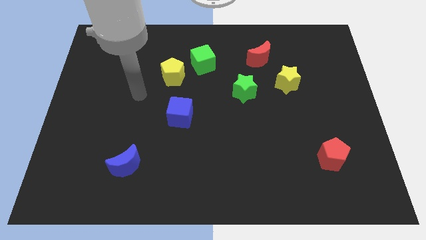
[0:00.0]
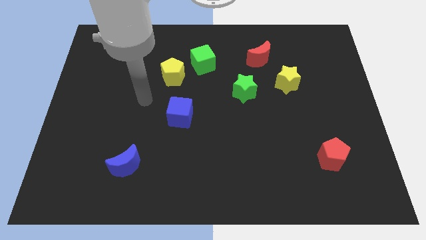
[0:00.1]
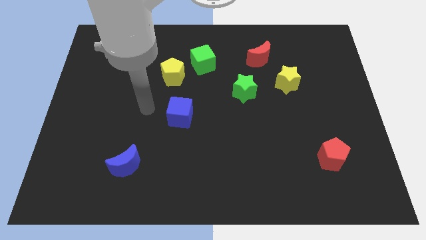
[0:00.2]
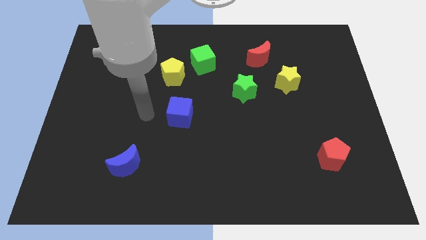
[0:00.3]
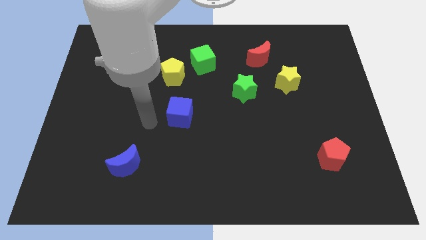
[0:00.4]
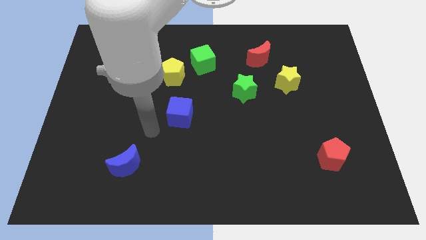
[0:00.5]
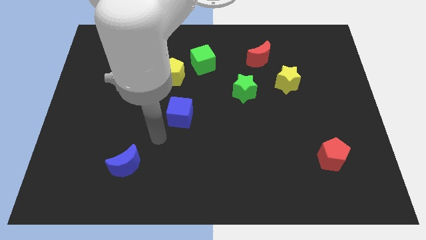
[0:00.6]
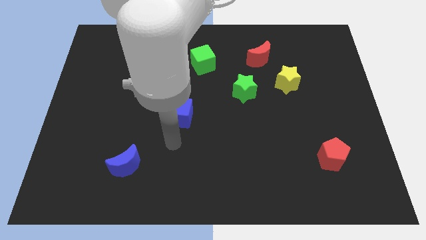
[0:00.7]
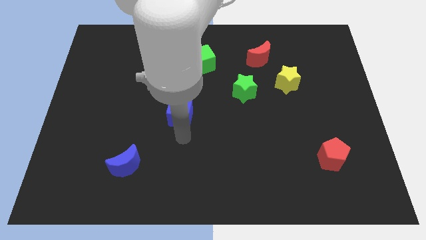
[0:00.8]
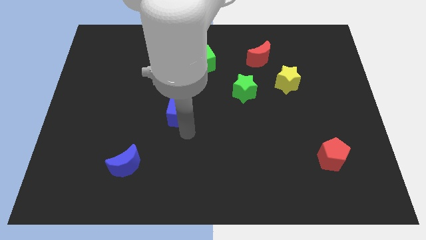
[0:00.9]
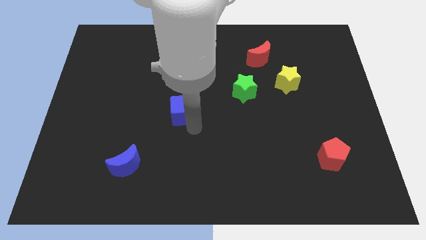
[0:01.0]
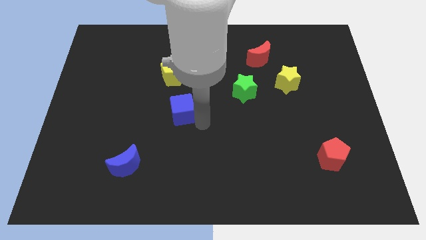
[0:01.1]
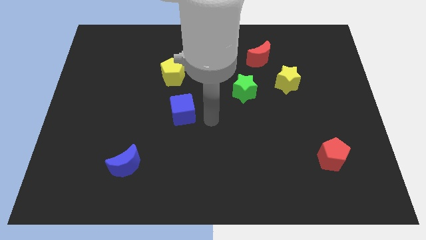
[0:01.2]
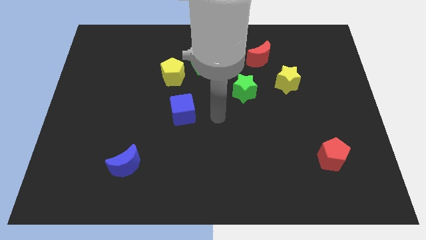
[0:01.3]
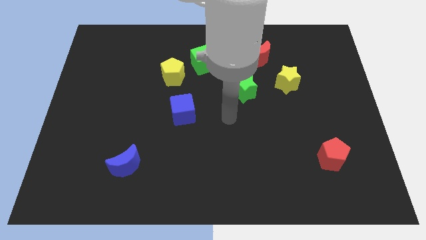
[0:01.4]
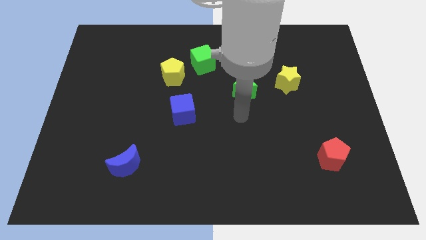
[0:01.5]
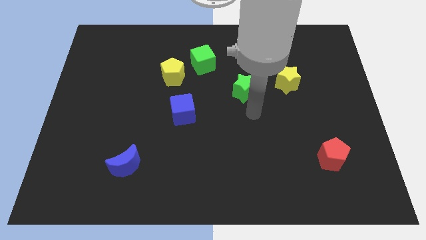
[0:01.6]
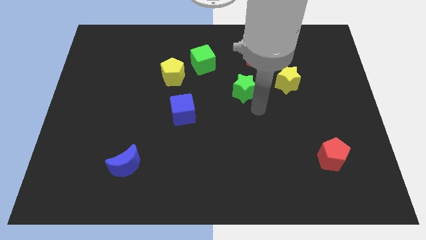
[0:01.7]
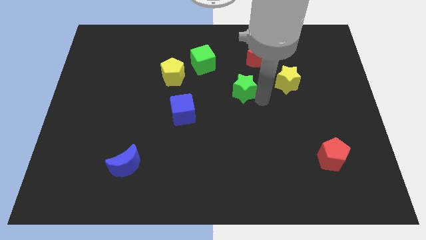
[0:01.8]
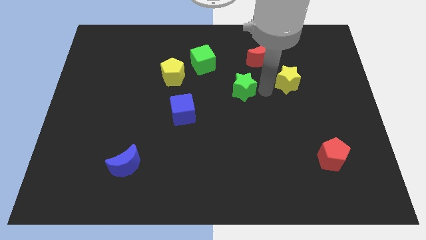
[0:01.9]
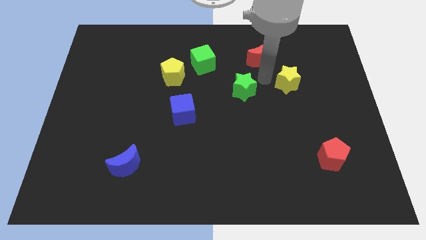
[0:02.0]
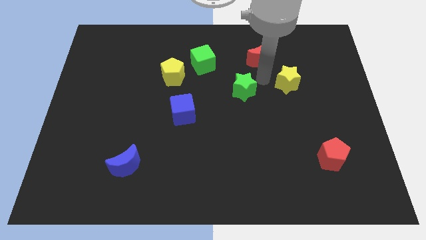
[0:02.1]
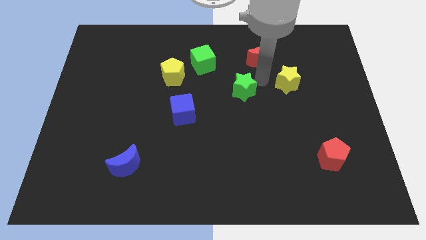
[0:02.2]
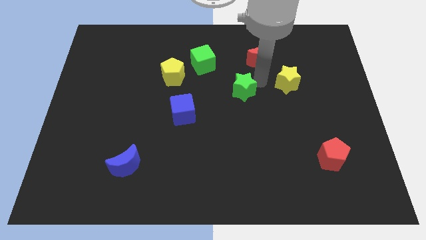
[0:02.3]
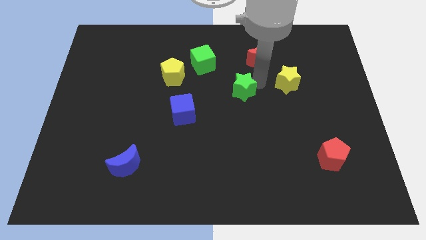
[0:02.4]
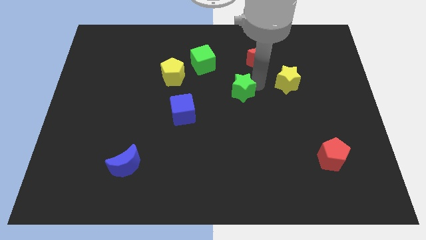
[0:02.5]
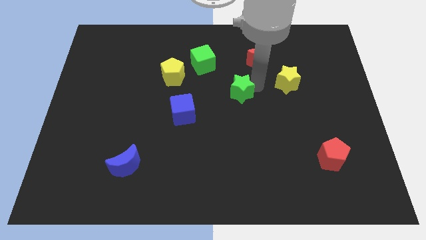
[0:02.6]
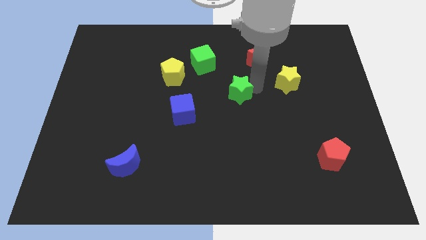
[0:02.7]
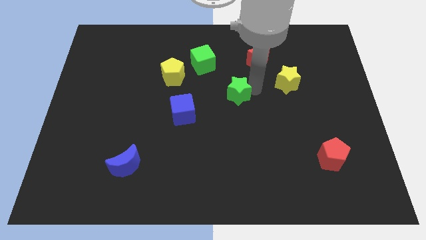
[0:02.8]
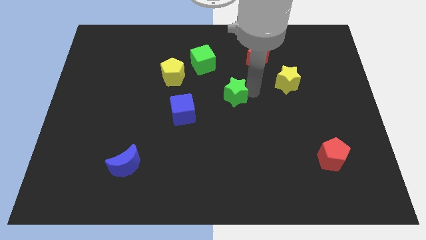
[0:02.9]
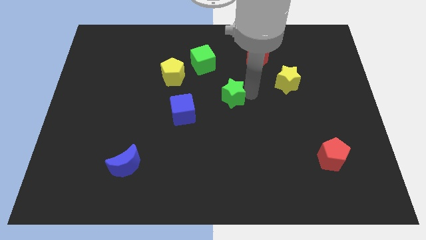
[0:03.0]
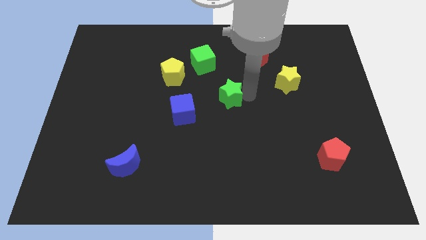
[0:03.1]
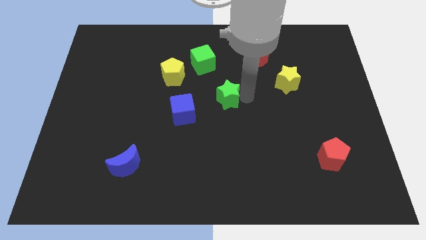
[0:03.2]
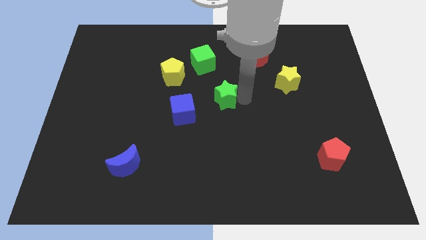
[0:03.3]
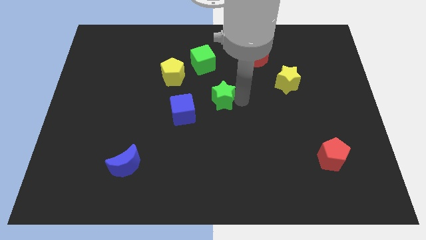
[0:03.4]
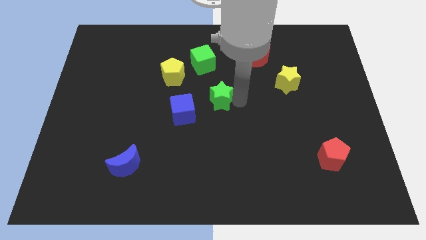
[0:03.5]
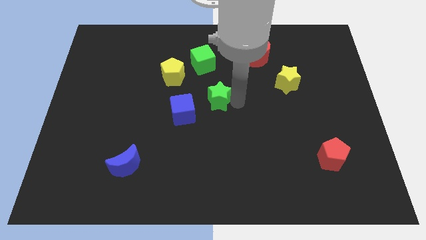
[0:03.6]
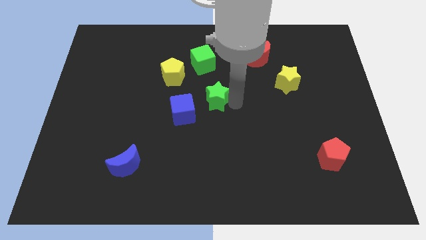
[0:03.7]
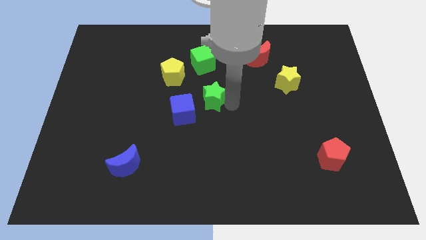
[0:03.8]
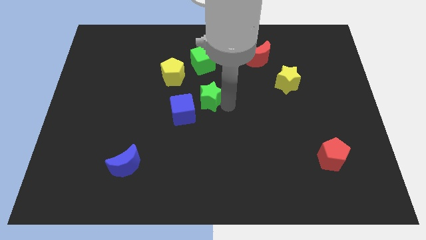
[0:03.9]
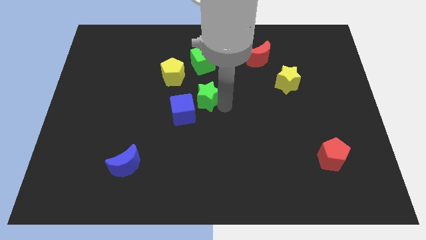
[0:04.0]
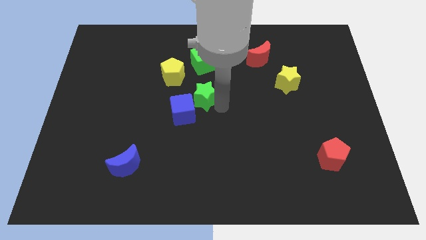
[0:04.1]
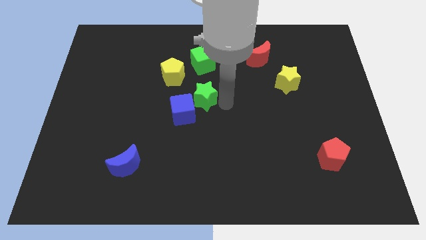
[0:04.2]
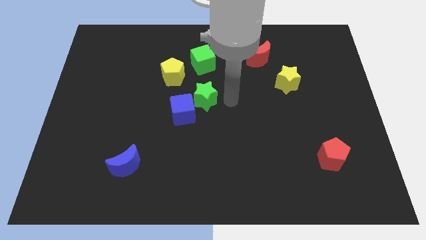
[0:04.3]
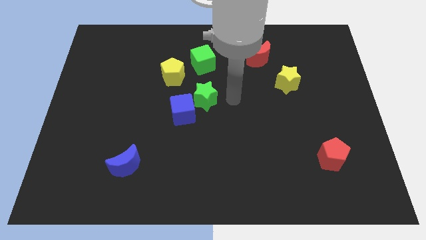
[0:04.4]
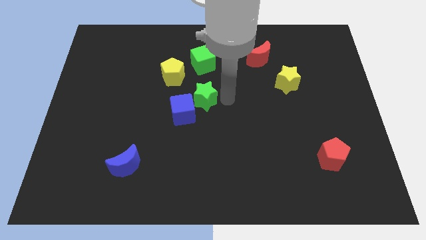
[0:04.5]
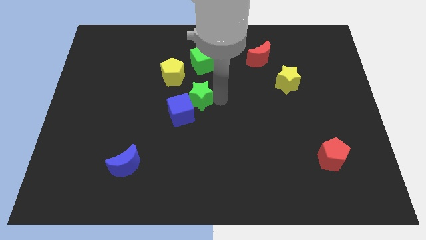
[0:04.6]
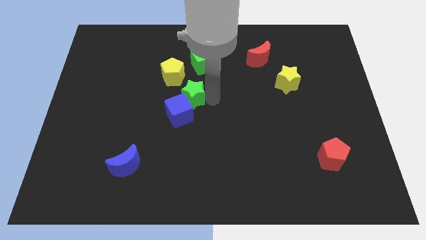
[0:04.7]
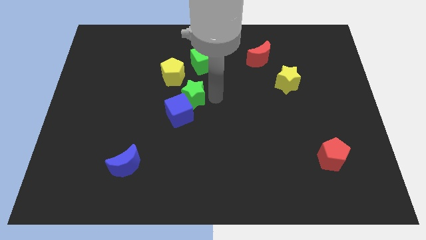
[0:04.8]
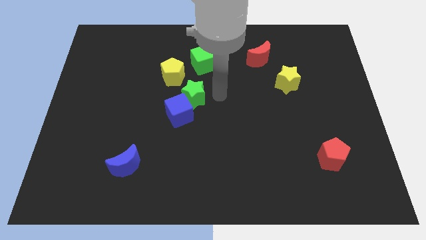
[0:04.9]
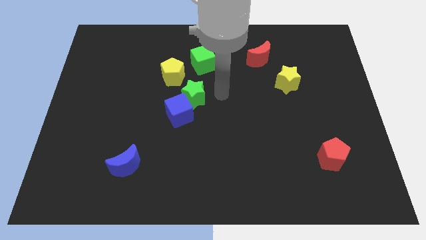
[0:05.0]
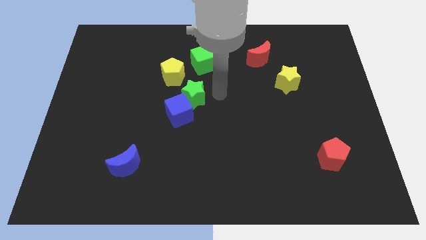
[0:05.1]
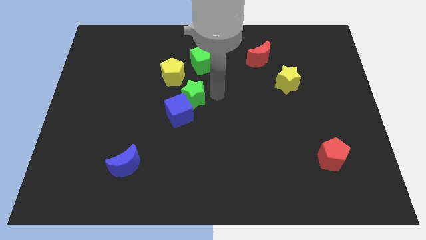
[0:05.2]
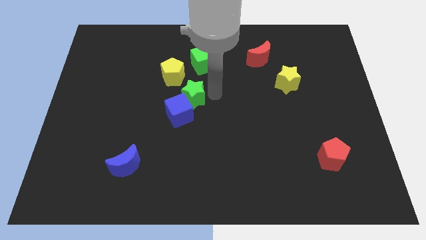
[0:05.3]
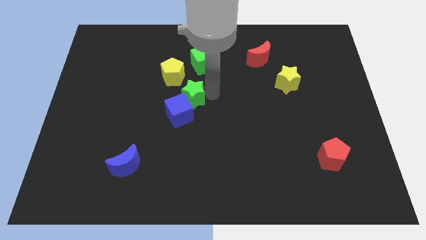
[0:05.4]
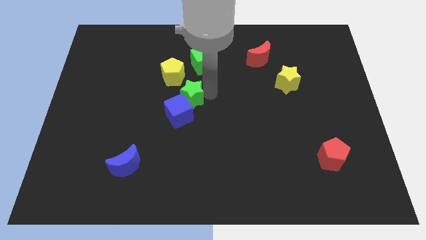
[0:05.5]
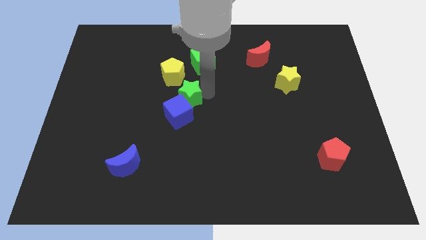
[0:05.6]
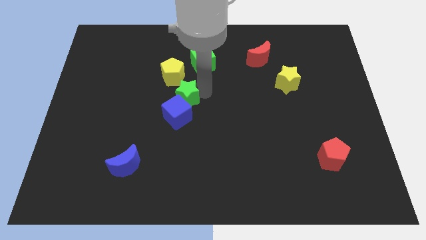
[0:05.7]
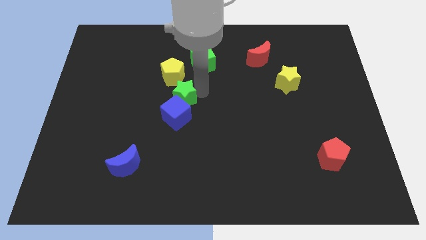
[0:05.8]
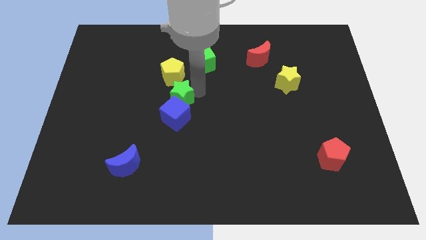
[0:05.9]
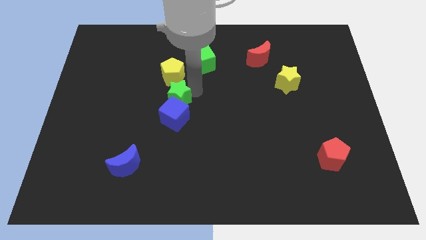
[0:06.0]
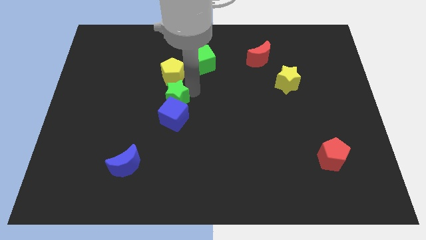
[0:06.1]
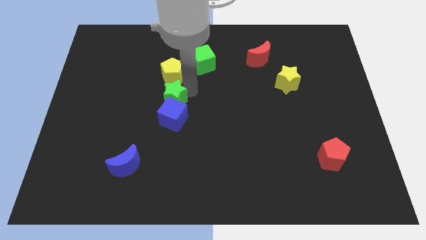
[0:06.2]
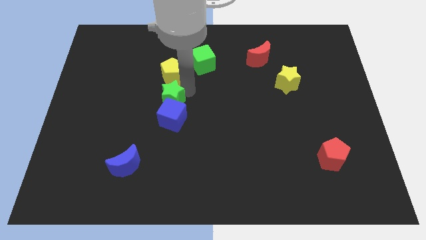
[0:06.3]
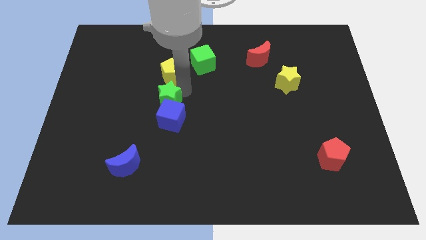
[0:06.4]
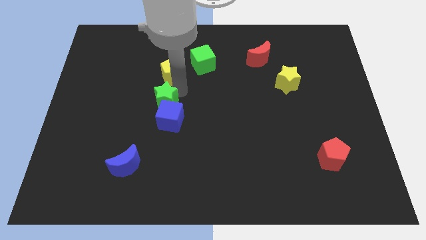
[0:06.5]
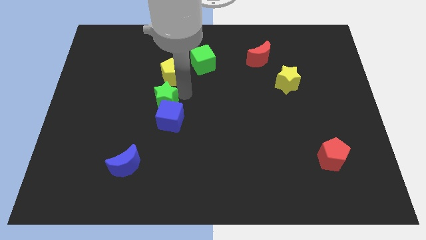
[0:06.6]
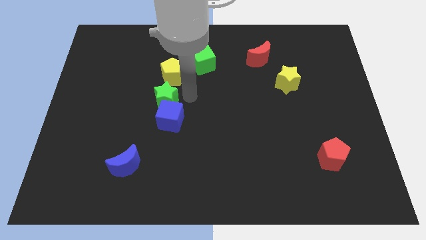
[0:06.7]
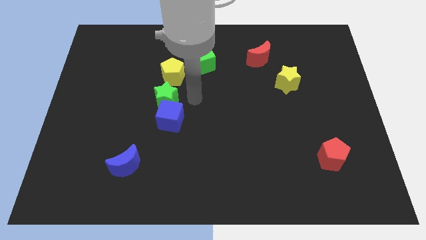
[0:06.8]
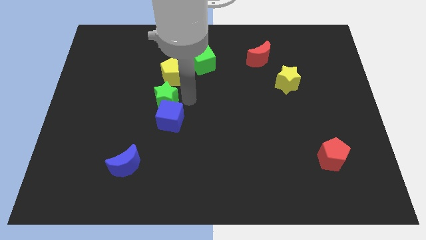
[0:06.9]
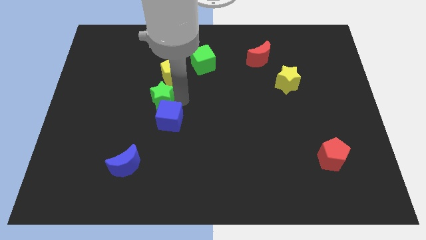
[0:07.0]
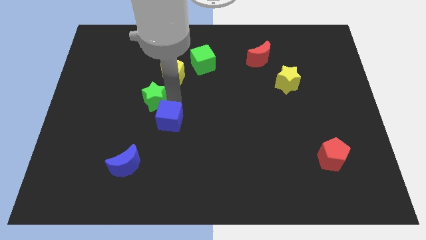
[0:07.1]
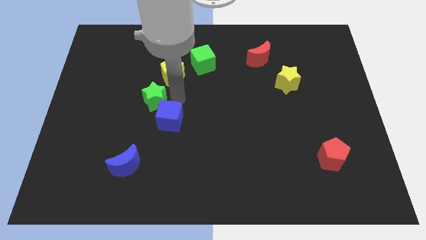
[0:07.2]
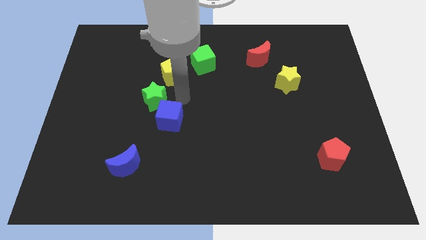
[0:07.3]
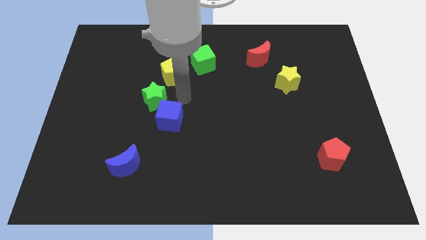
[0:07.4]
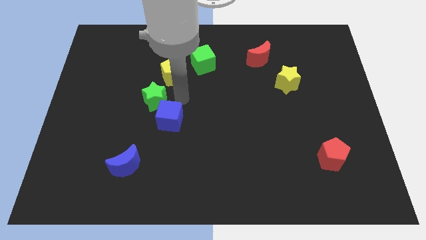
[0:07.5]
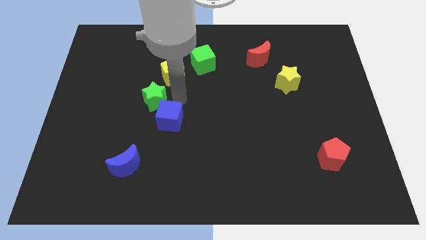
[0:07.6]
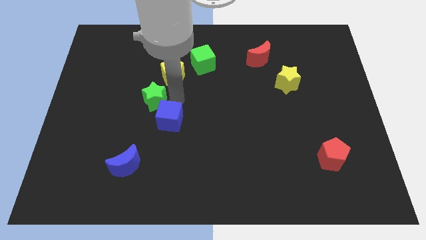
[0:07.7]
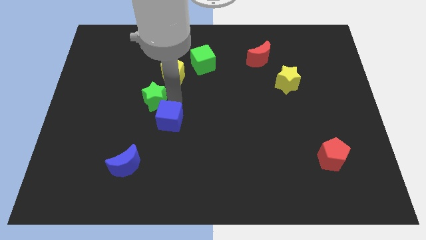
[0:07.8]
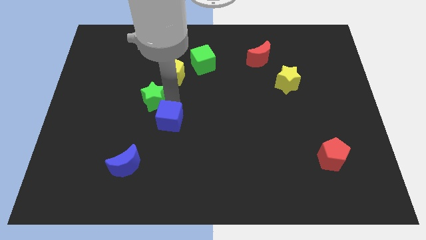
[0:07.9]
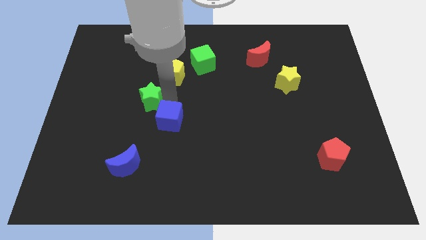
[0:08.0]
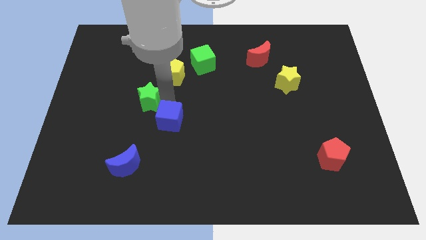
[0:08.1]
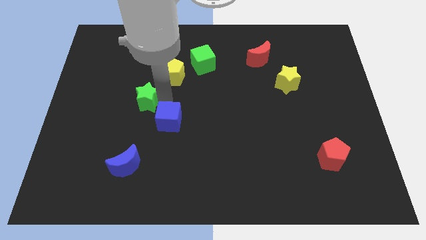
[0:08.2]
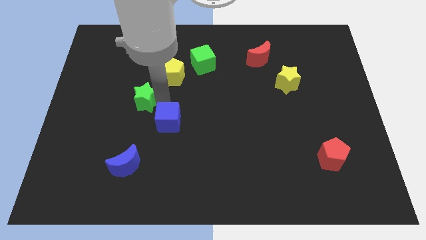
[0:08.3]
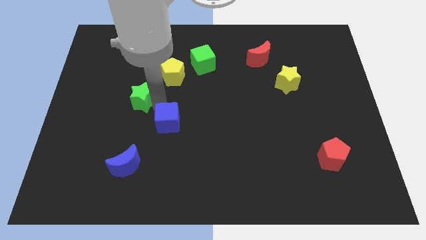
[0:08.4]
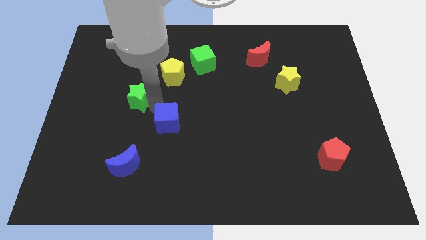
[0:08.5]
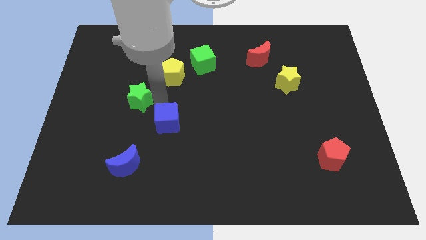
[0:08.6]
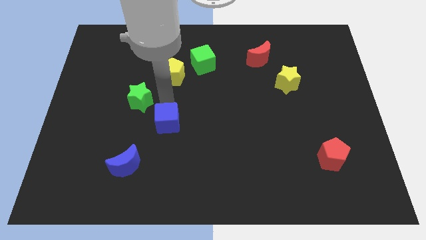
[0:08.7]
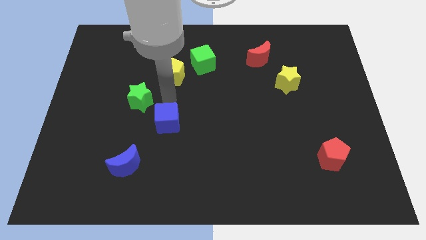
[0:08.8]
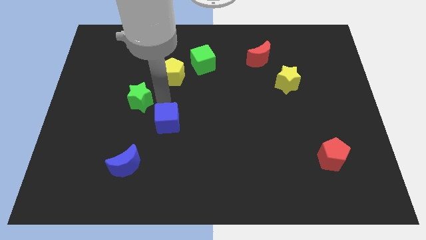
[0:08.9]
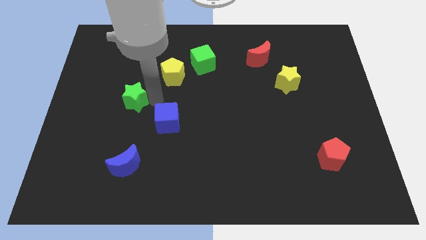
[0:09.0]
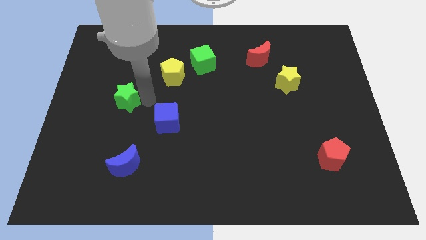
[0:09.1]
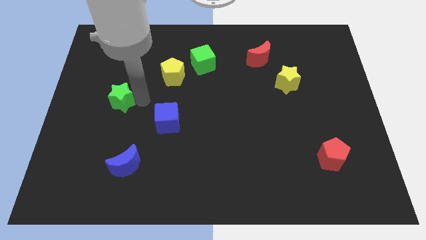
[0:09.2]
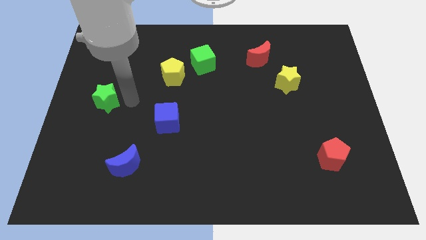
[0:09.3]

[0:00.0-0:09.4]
push the green star to the center left
